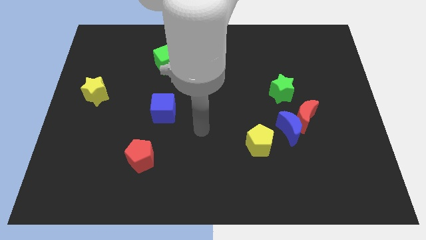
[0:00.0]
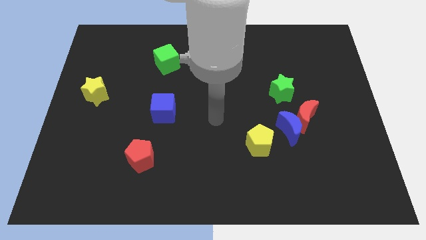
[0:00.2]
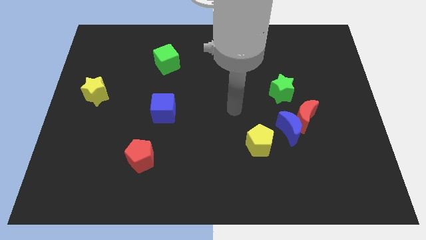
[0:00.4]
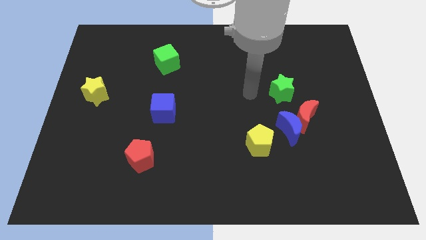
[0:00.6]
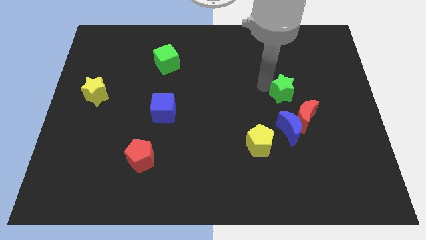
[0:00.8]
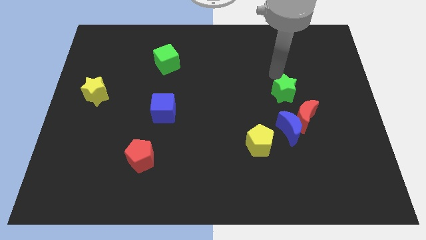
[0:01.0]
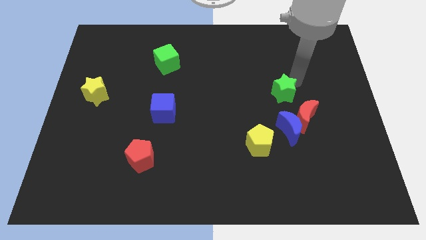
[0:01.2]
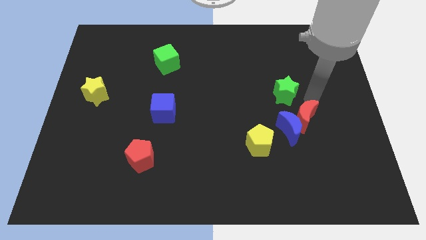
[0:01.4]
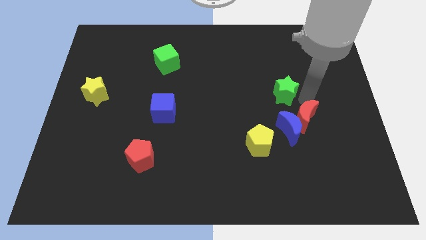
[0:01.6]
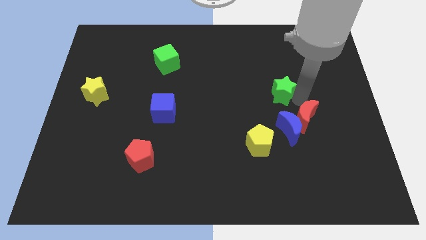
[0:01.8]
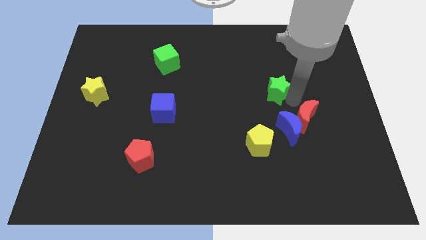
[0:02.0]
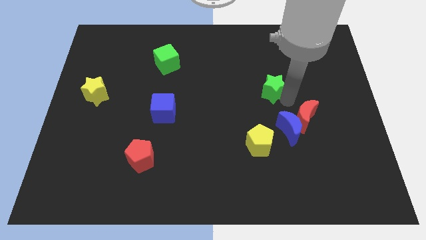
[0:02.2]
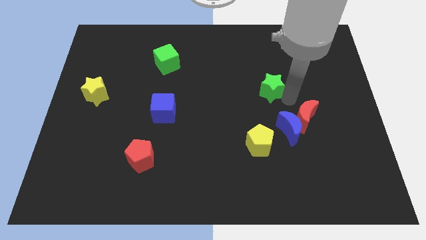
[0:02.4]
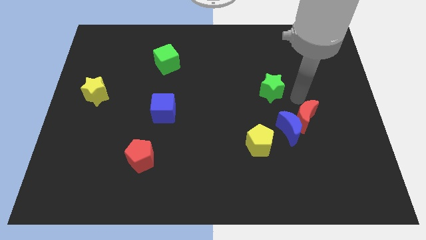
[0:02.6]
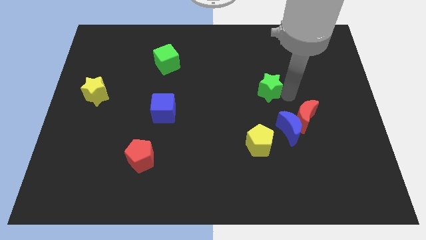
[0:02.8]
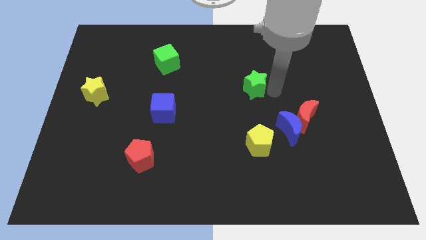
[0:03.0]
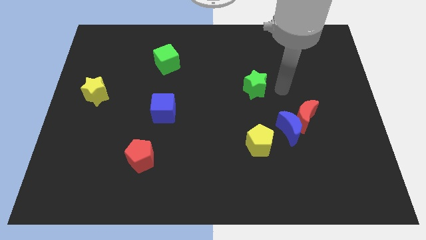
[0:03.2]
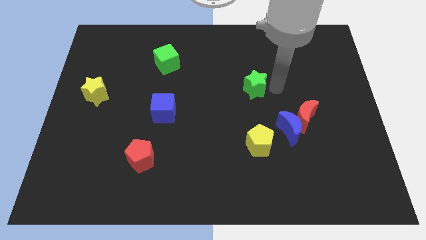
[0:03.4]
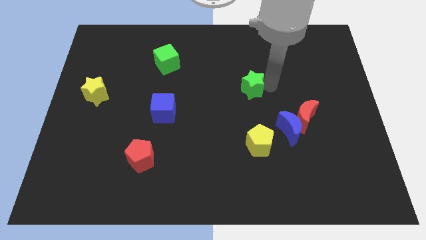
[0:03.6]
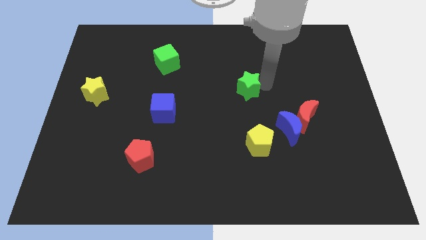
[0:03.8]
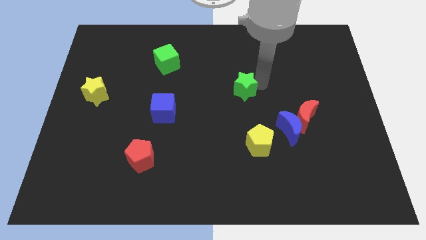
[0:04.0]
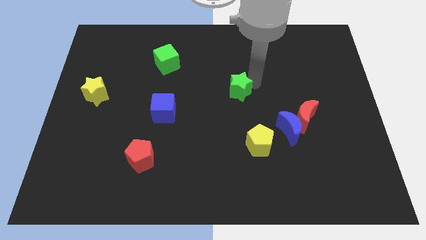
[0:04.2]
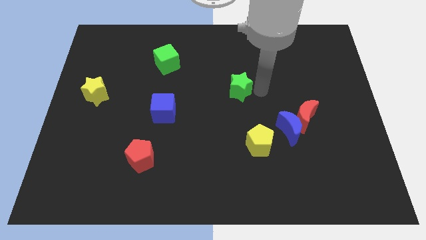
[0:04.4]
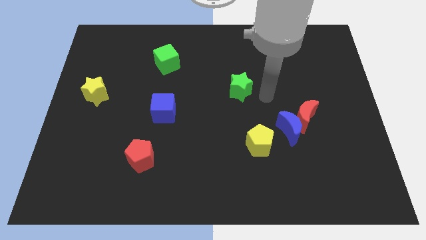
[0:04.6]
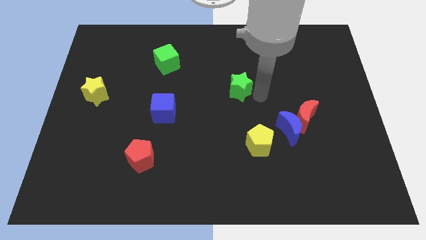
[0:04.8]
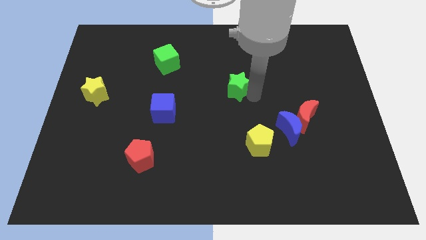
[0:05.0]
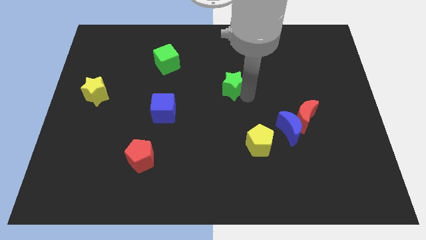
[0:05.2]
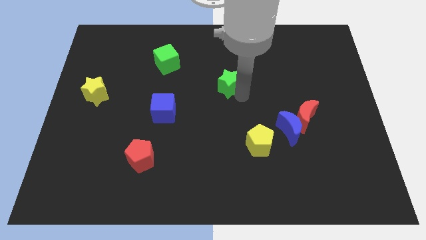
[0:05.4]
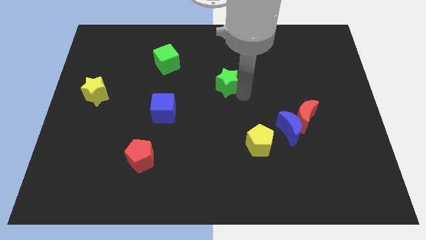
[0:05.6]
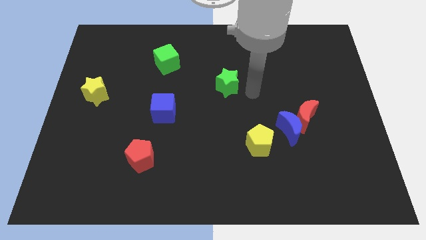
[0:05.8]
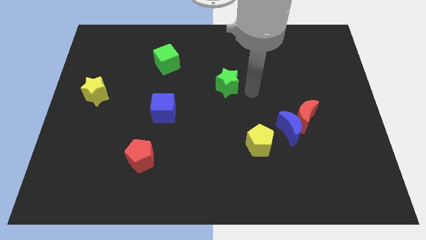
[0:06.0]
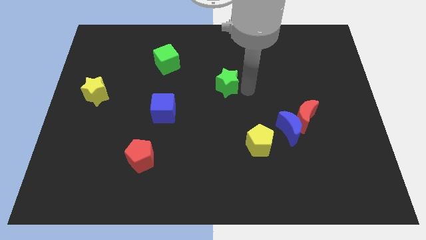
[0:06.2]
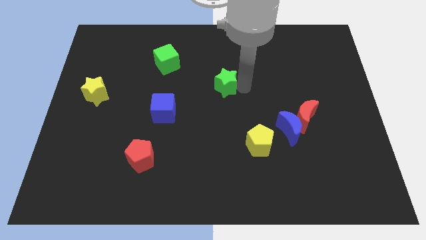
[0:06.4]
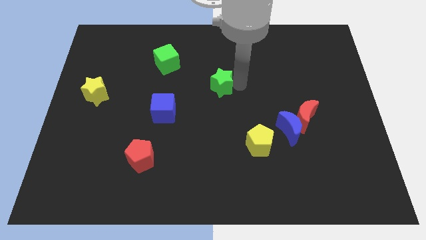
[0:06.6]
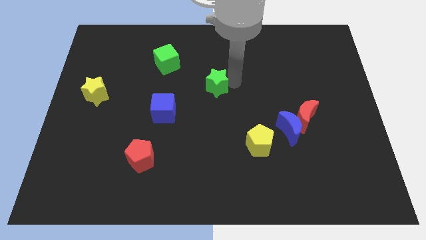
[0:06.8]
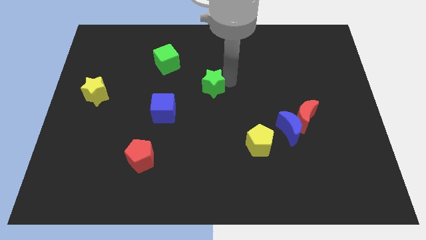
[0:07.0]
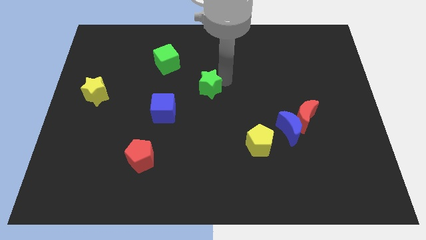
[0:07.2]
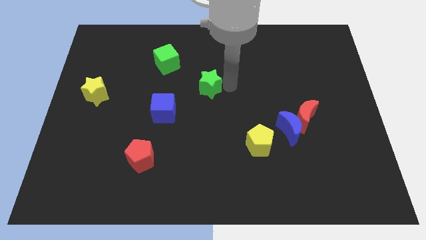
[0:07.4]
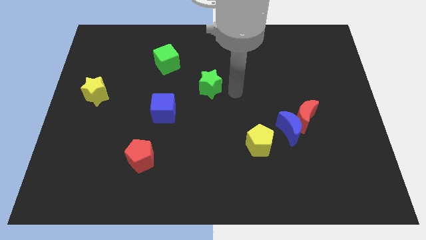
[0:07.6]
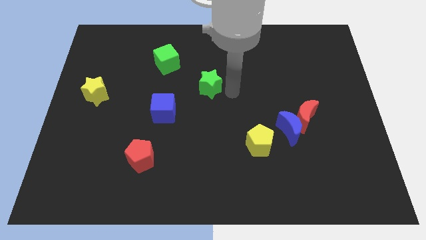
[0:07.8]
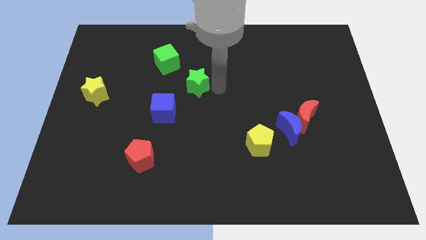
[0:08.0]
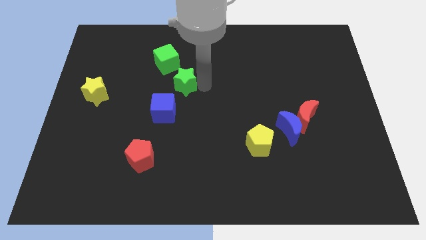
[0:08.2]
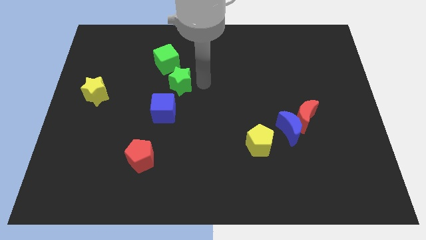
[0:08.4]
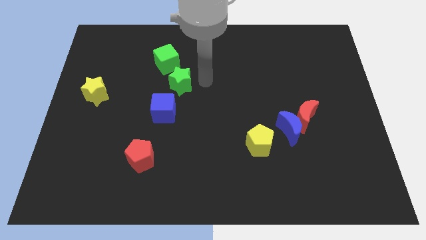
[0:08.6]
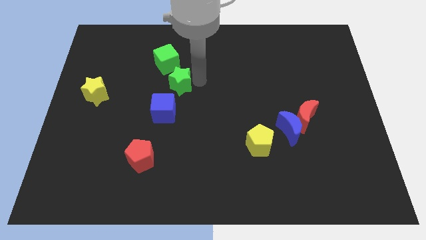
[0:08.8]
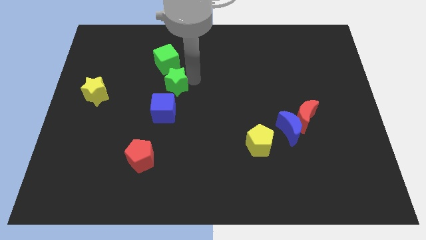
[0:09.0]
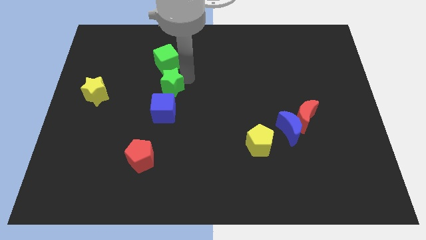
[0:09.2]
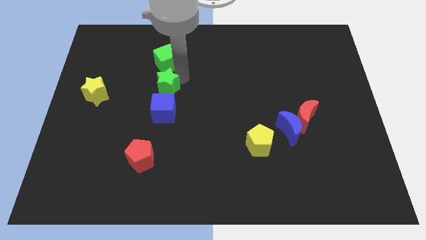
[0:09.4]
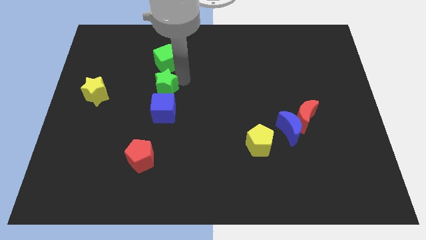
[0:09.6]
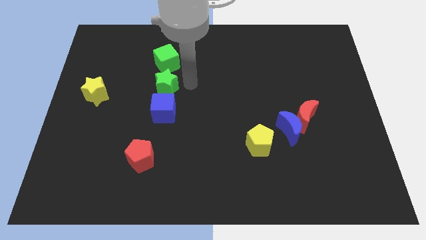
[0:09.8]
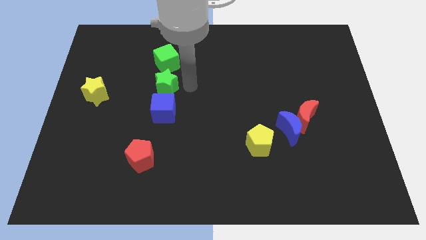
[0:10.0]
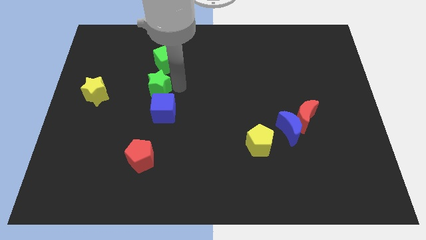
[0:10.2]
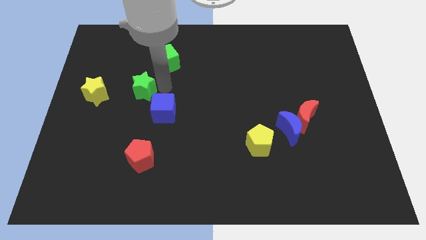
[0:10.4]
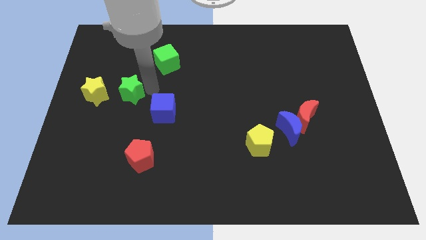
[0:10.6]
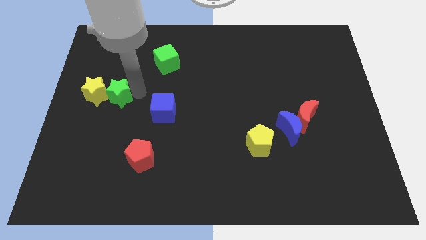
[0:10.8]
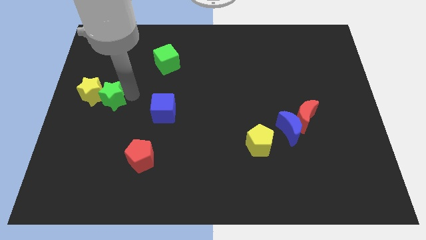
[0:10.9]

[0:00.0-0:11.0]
push the green star next to the yellow star

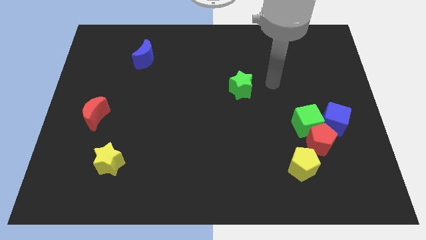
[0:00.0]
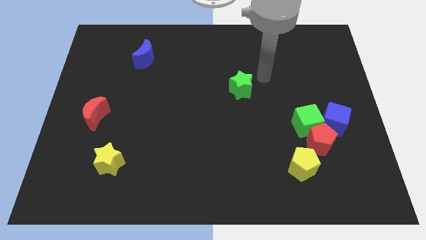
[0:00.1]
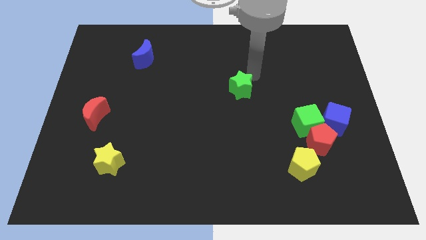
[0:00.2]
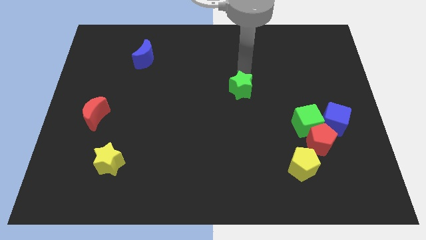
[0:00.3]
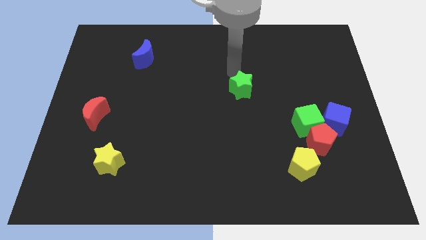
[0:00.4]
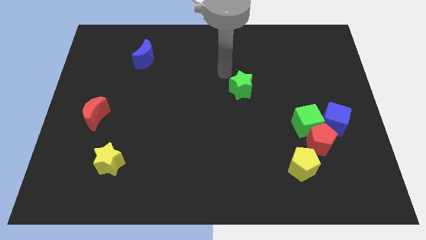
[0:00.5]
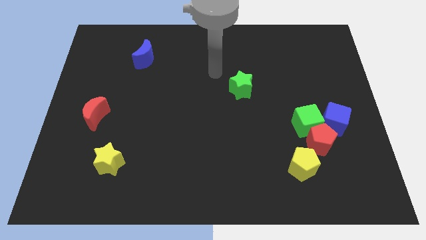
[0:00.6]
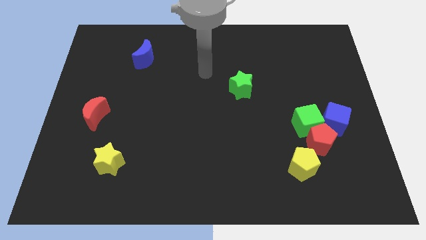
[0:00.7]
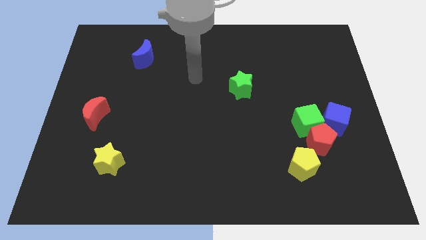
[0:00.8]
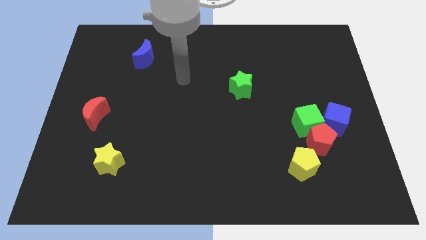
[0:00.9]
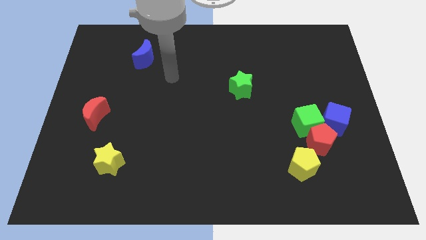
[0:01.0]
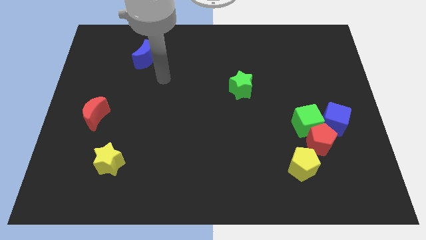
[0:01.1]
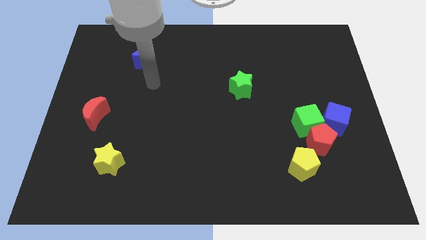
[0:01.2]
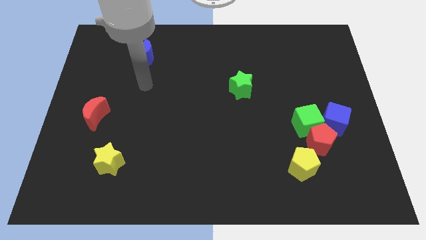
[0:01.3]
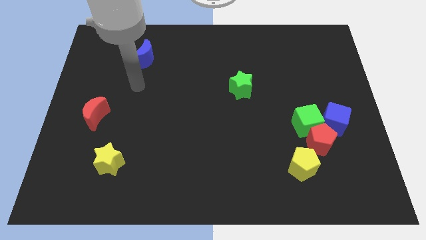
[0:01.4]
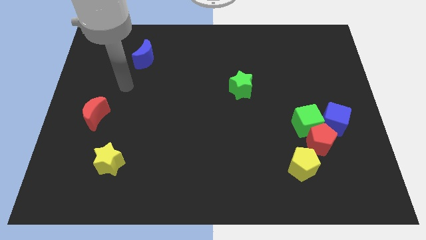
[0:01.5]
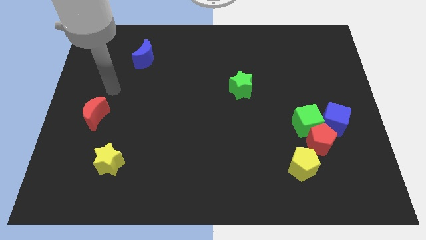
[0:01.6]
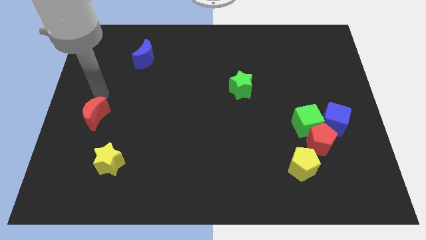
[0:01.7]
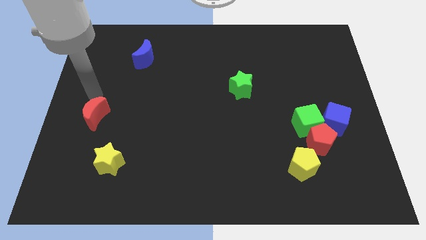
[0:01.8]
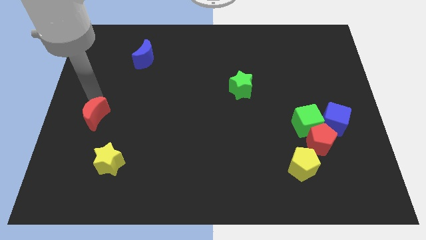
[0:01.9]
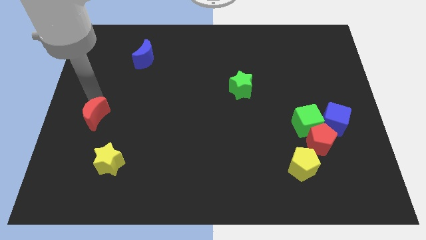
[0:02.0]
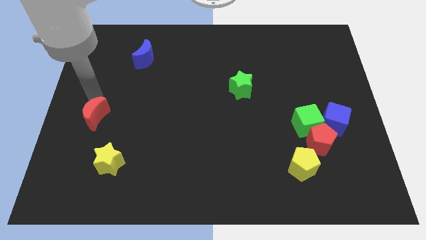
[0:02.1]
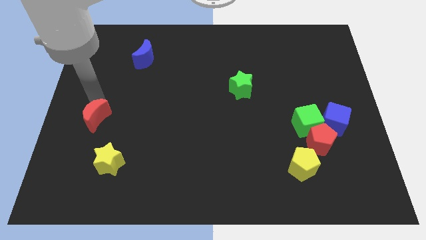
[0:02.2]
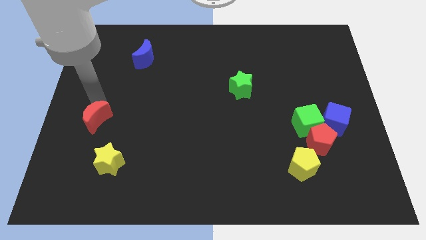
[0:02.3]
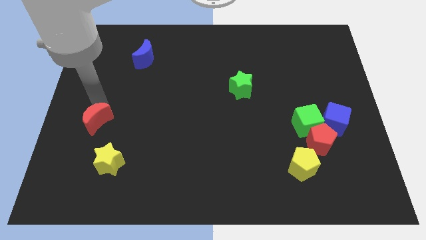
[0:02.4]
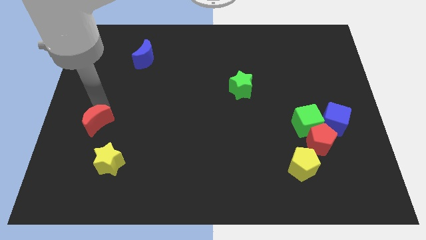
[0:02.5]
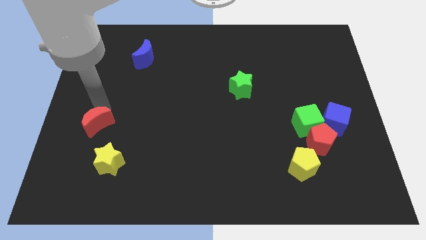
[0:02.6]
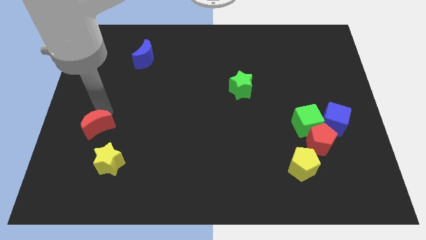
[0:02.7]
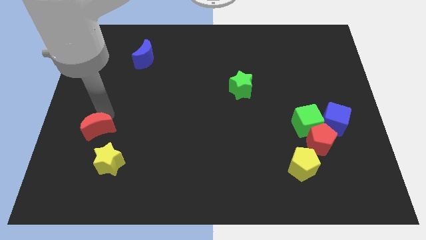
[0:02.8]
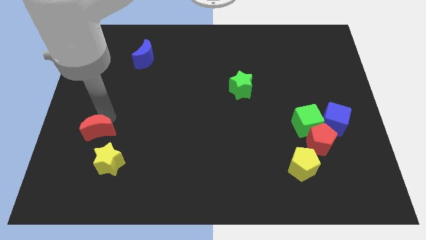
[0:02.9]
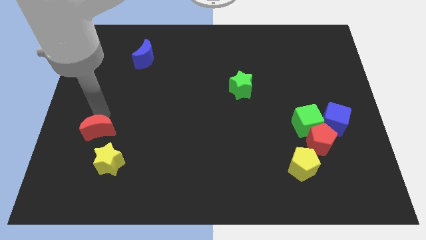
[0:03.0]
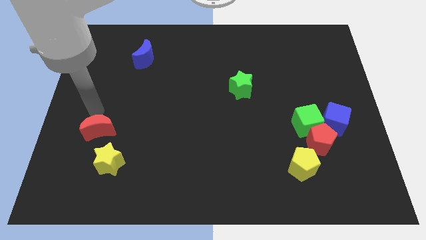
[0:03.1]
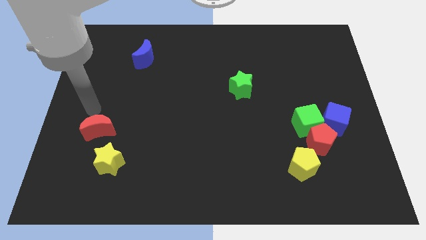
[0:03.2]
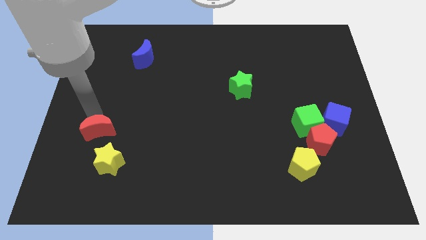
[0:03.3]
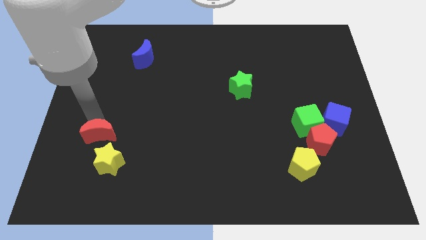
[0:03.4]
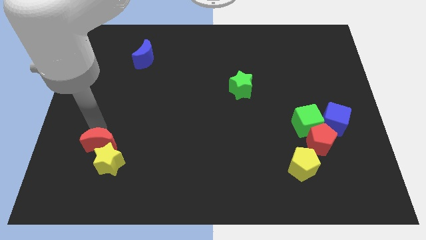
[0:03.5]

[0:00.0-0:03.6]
slide the red moon towards the yellow star
